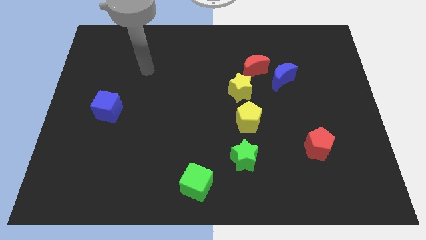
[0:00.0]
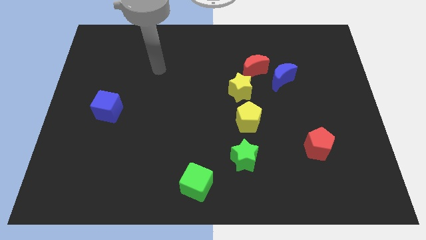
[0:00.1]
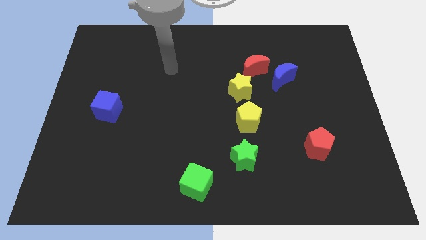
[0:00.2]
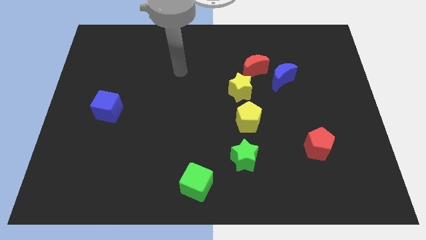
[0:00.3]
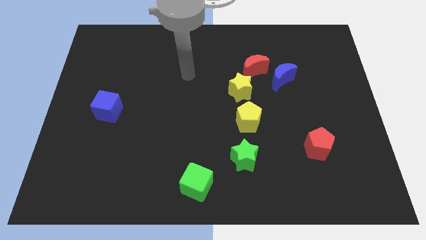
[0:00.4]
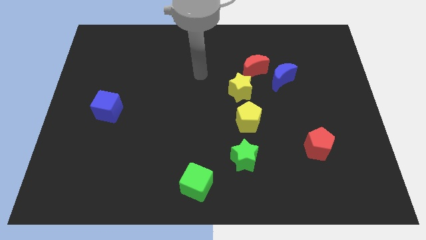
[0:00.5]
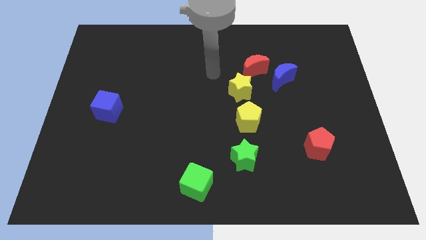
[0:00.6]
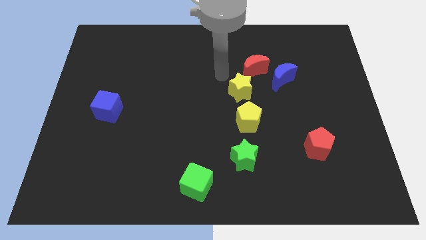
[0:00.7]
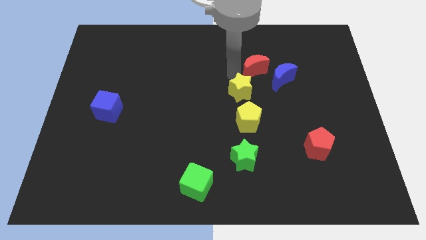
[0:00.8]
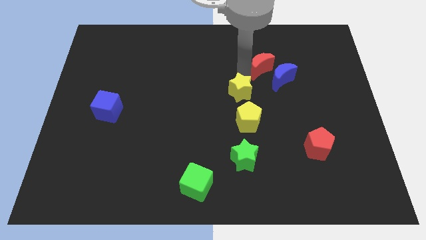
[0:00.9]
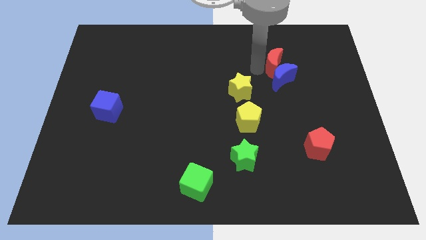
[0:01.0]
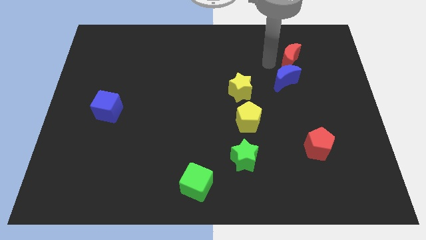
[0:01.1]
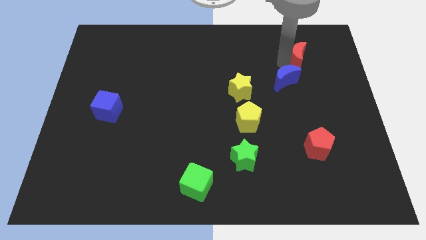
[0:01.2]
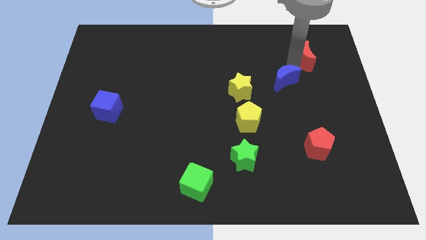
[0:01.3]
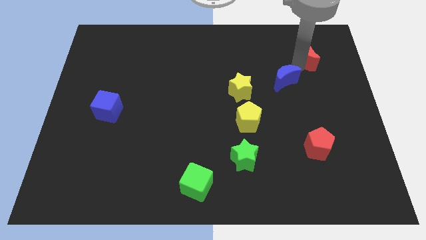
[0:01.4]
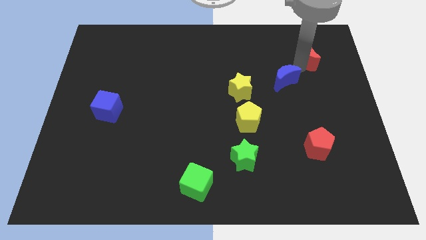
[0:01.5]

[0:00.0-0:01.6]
pull the blue moon apart from the red moon

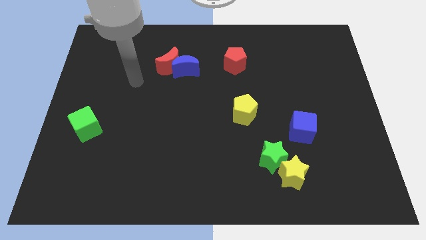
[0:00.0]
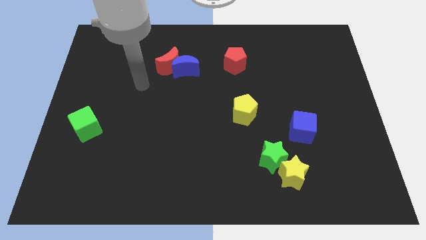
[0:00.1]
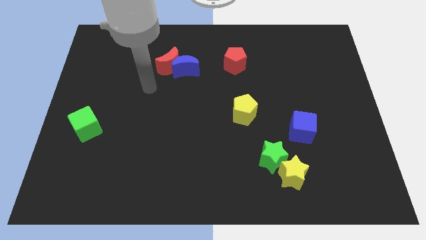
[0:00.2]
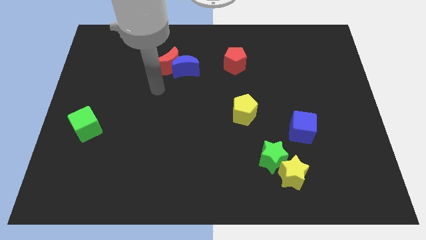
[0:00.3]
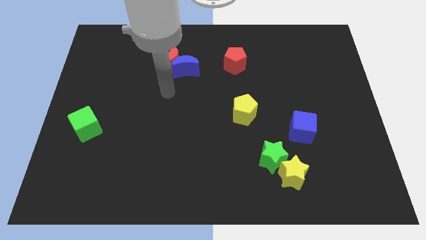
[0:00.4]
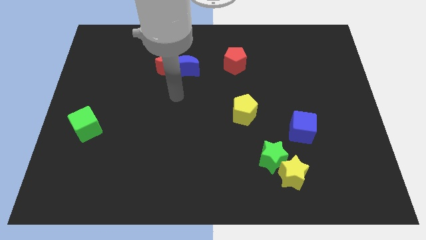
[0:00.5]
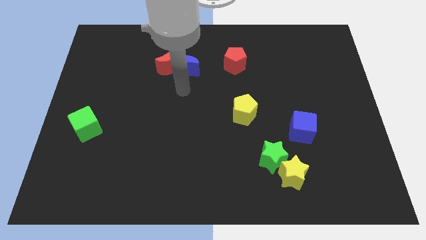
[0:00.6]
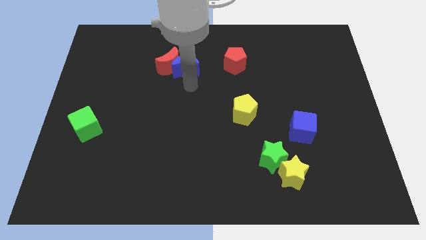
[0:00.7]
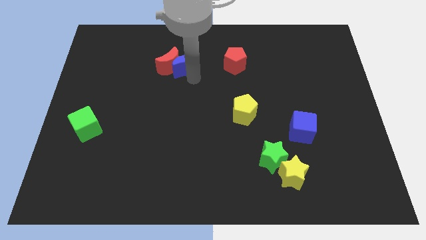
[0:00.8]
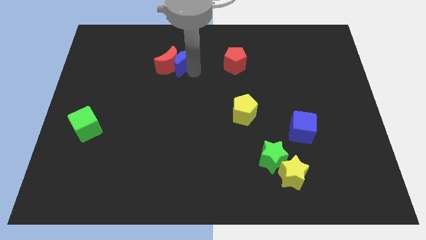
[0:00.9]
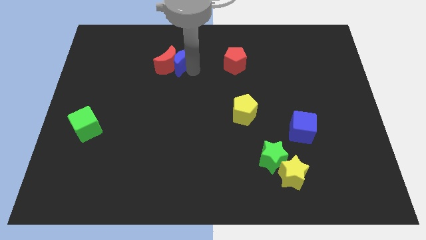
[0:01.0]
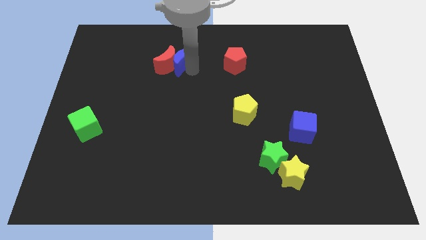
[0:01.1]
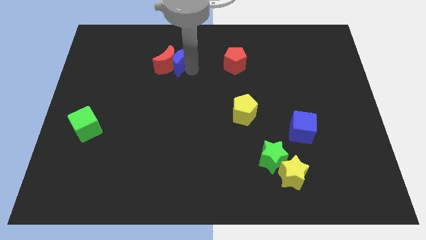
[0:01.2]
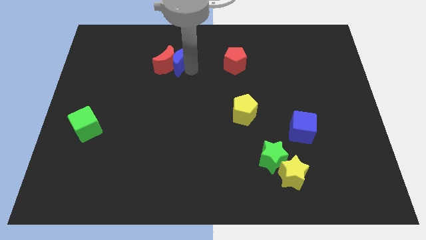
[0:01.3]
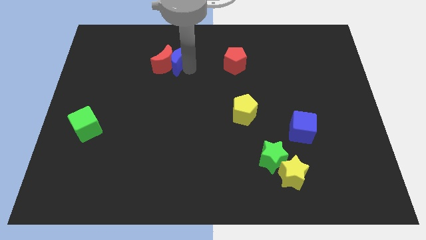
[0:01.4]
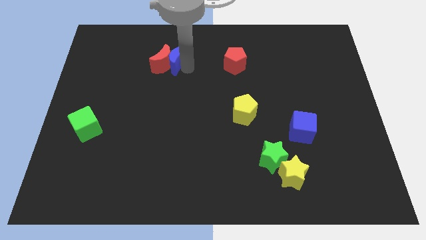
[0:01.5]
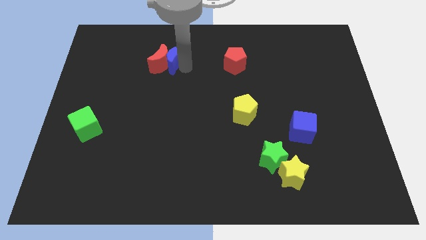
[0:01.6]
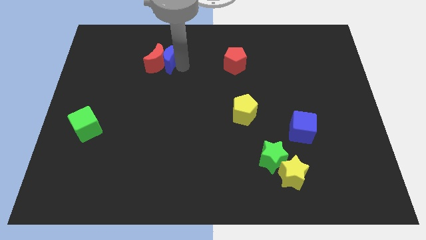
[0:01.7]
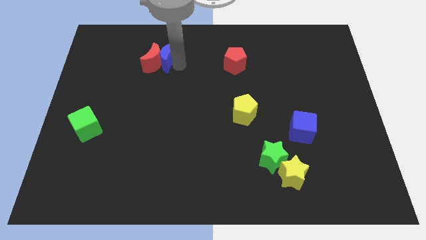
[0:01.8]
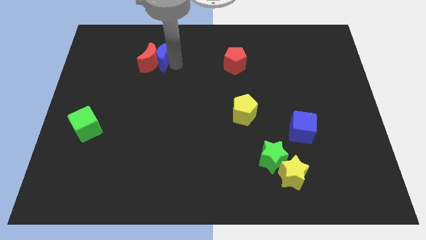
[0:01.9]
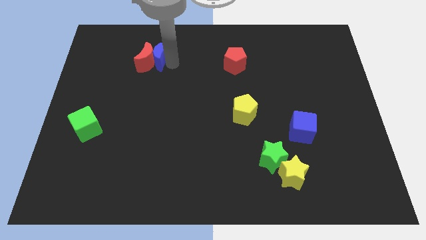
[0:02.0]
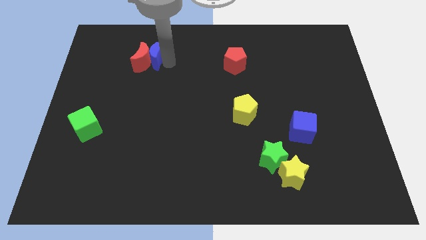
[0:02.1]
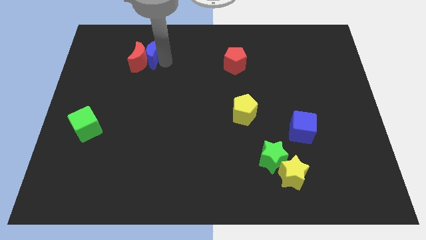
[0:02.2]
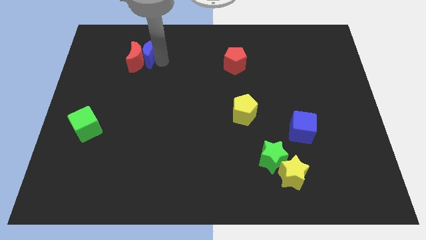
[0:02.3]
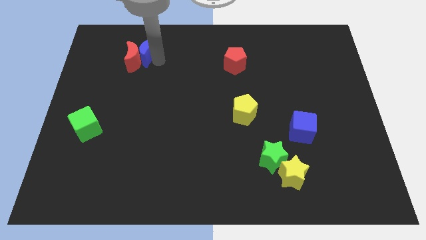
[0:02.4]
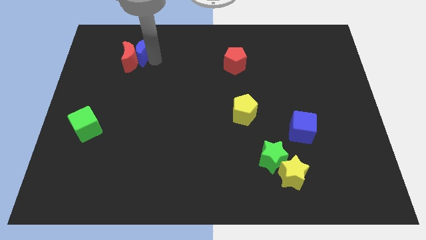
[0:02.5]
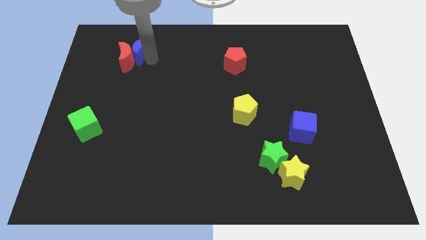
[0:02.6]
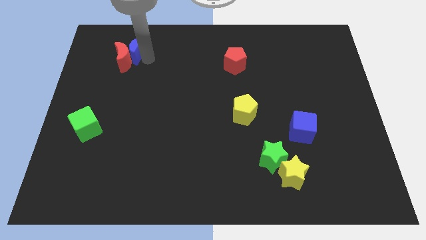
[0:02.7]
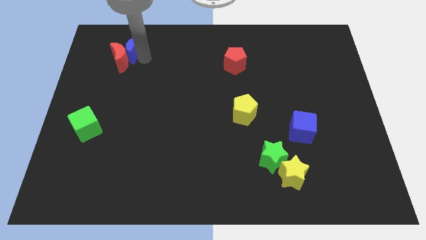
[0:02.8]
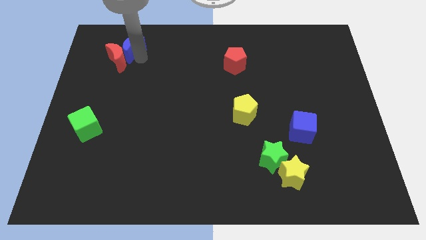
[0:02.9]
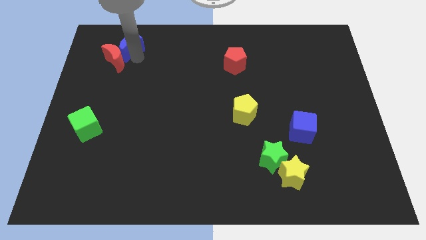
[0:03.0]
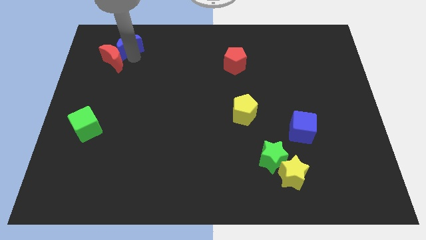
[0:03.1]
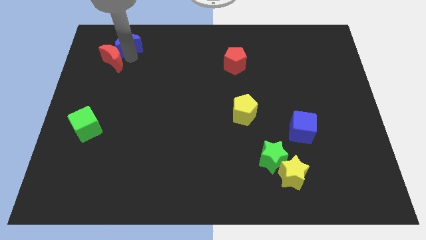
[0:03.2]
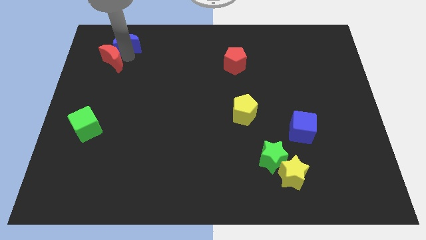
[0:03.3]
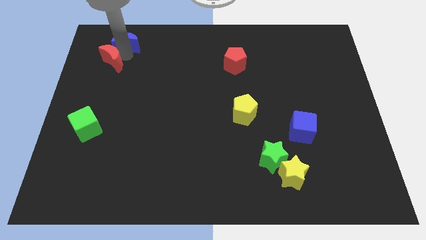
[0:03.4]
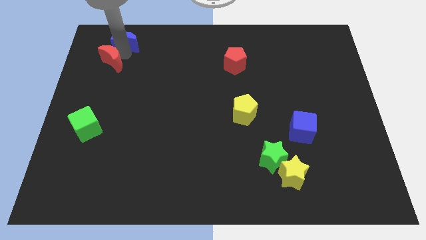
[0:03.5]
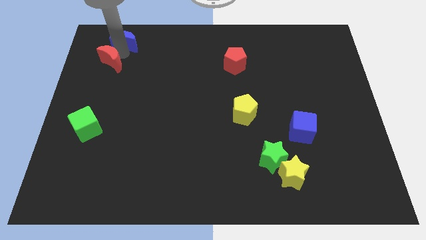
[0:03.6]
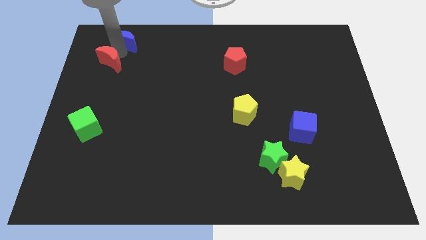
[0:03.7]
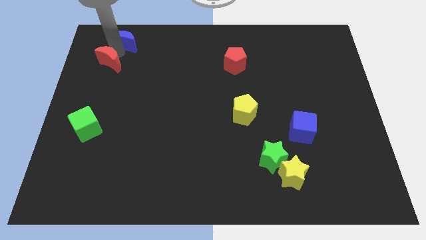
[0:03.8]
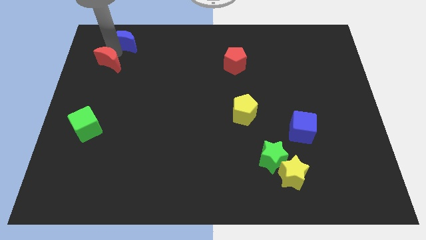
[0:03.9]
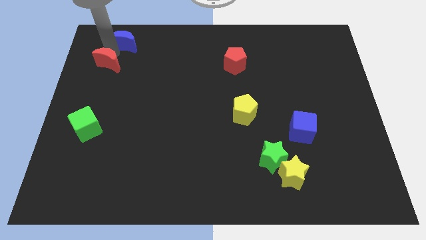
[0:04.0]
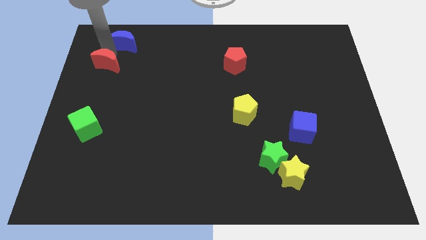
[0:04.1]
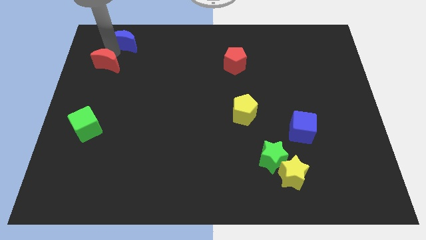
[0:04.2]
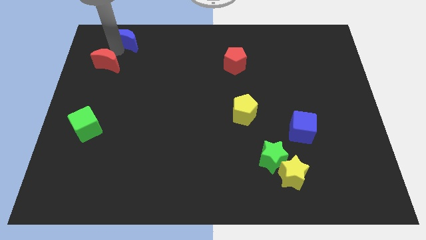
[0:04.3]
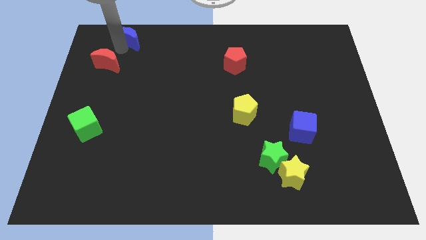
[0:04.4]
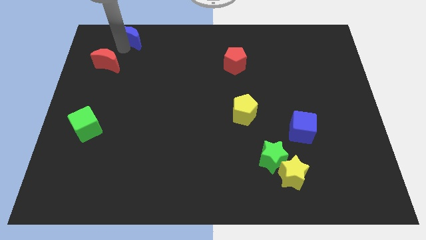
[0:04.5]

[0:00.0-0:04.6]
pull the red moon apart from the blue moon

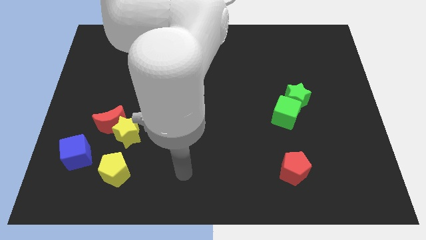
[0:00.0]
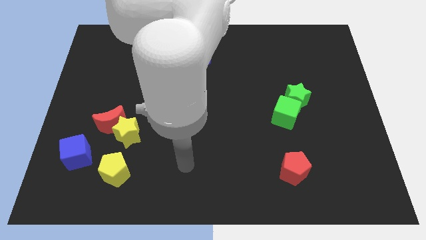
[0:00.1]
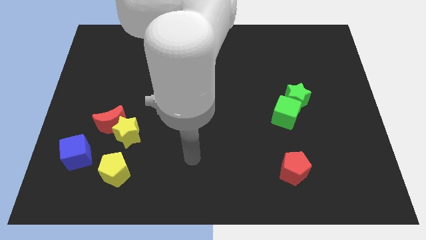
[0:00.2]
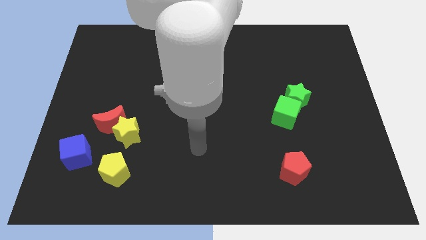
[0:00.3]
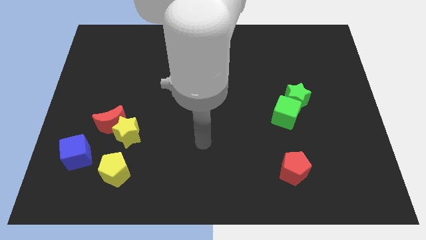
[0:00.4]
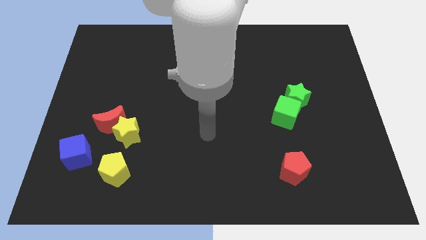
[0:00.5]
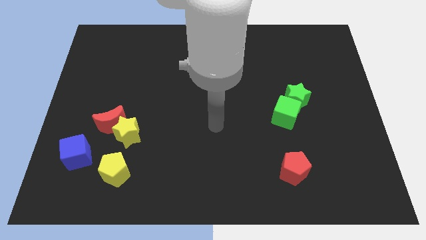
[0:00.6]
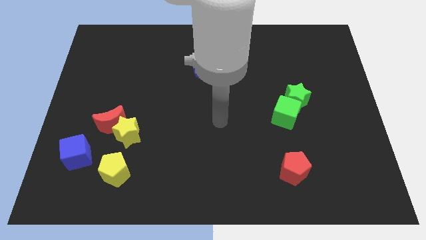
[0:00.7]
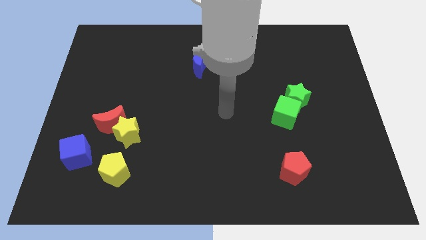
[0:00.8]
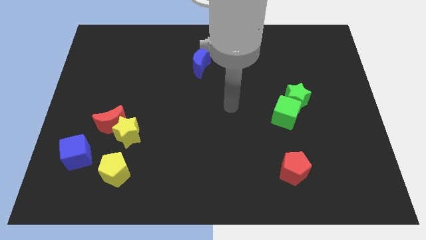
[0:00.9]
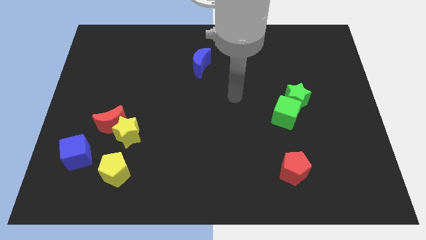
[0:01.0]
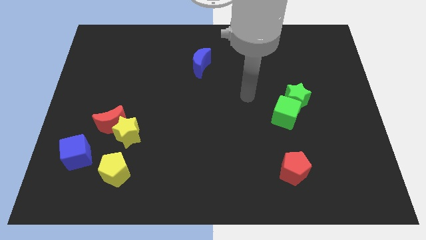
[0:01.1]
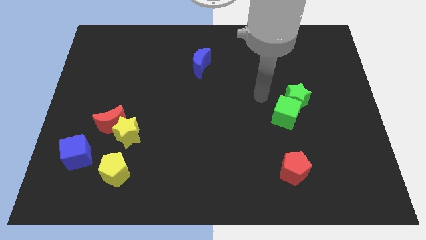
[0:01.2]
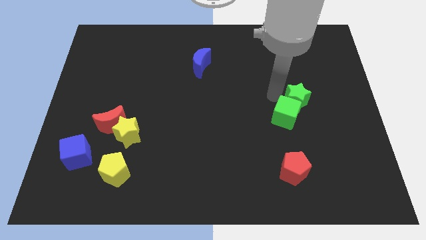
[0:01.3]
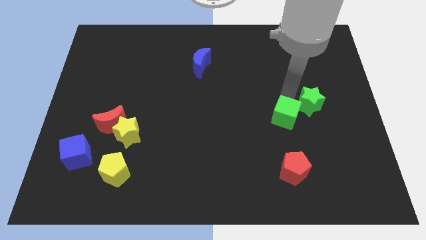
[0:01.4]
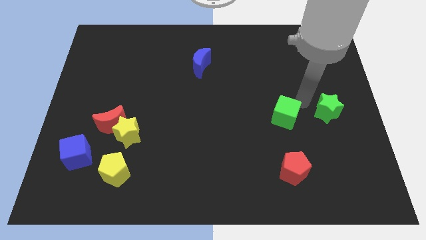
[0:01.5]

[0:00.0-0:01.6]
move the green cube away from the green star

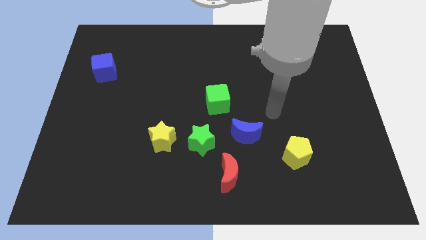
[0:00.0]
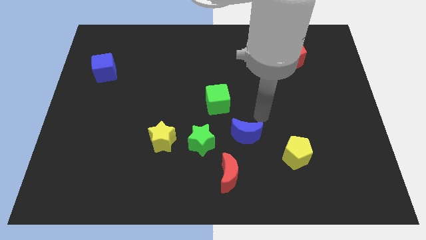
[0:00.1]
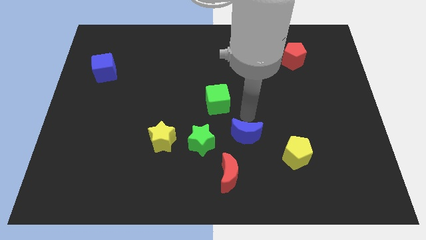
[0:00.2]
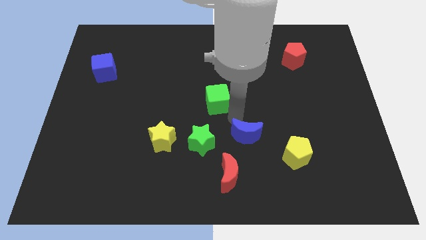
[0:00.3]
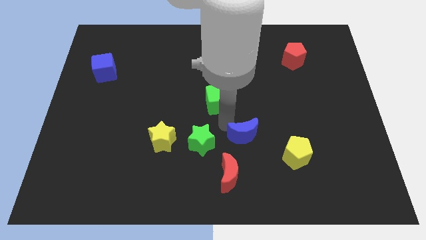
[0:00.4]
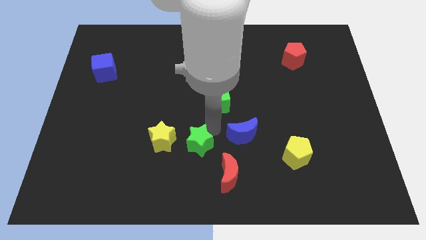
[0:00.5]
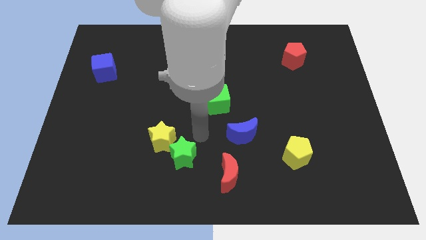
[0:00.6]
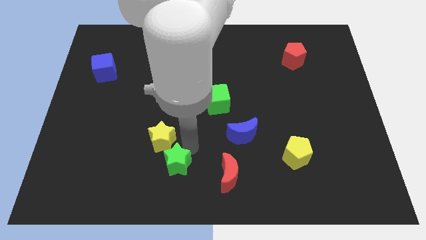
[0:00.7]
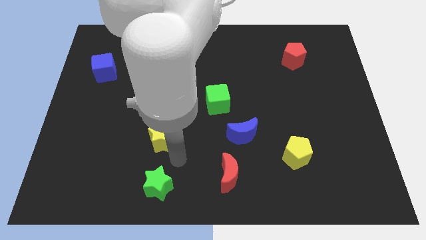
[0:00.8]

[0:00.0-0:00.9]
separate the yellow star from the green star

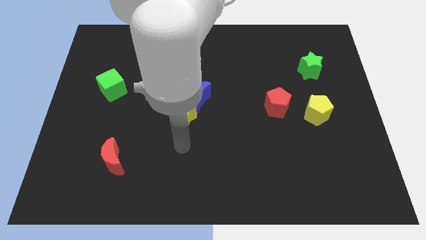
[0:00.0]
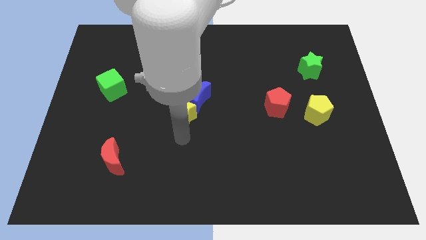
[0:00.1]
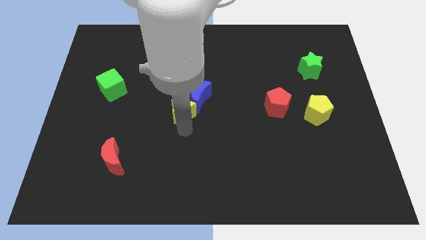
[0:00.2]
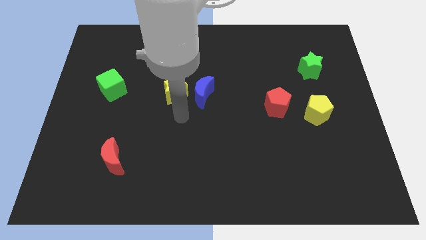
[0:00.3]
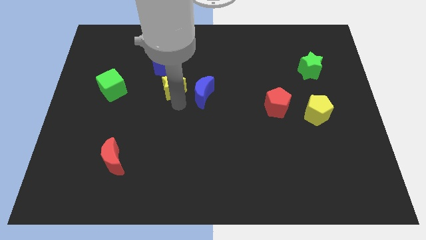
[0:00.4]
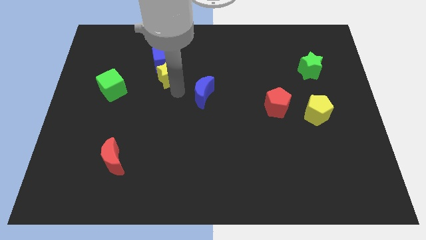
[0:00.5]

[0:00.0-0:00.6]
pull the blue moon apart from the yellow star

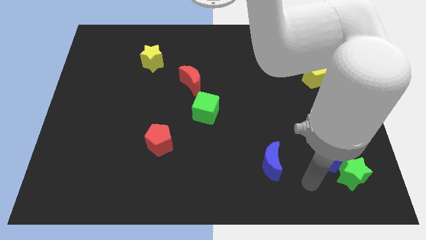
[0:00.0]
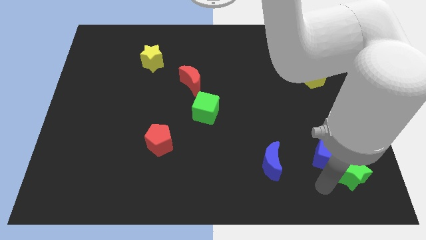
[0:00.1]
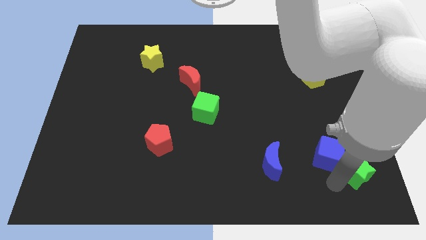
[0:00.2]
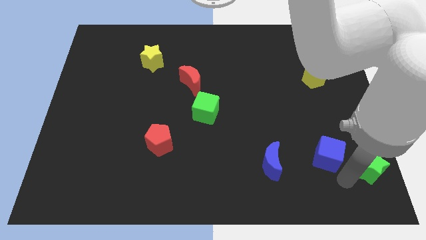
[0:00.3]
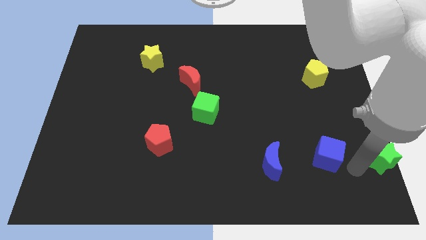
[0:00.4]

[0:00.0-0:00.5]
pull the blue cube apart from the green star
